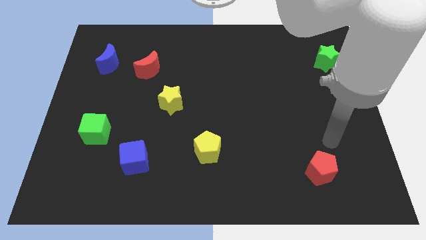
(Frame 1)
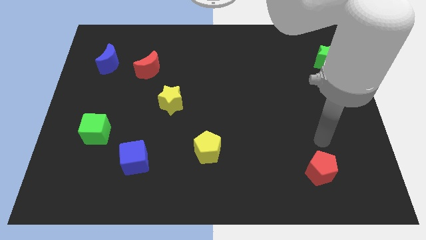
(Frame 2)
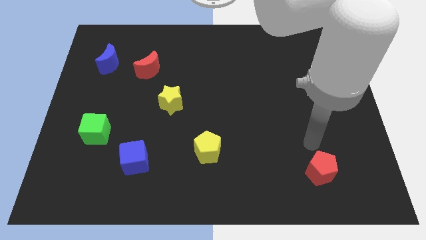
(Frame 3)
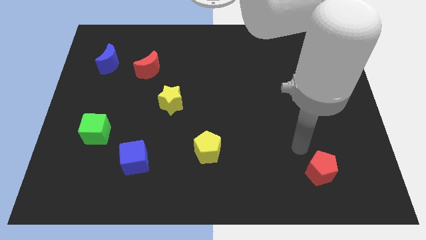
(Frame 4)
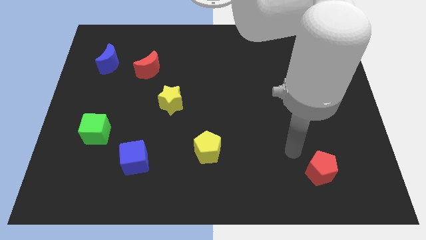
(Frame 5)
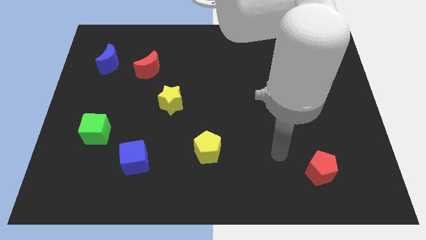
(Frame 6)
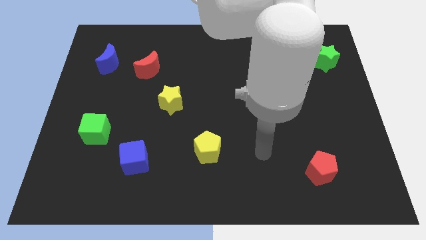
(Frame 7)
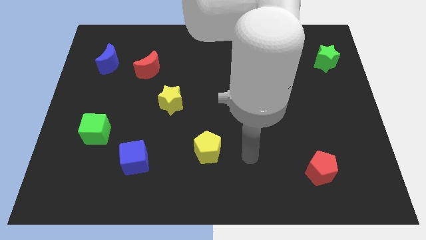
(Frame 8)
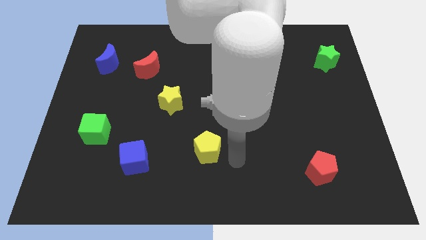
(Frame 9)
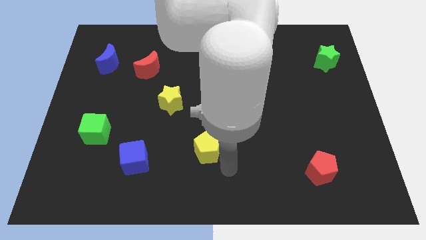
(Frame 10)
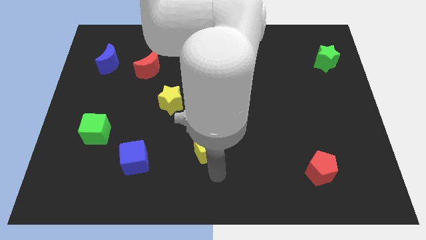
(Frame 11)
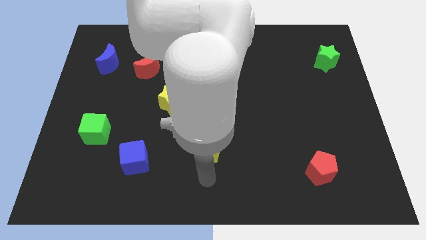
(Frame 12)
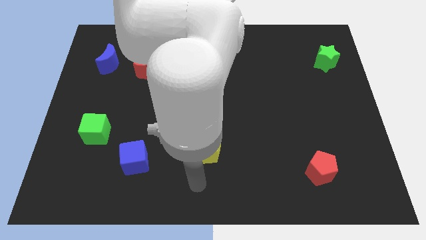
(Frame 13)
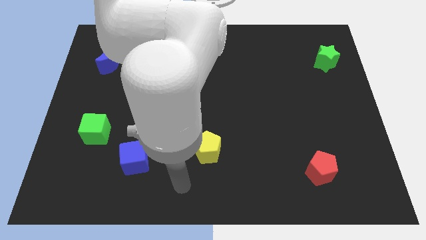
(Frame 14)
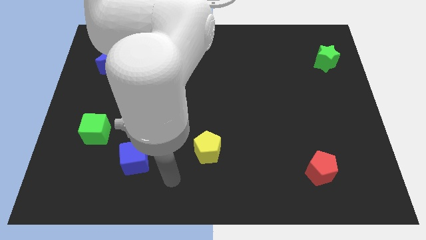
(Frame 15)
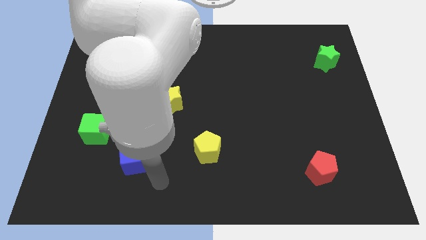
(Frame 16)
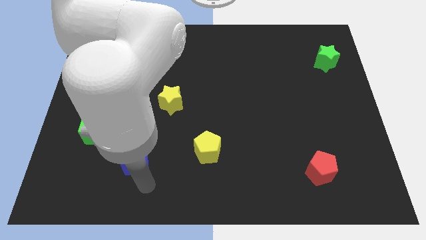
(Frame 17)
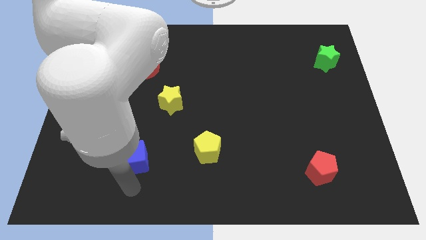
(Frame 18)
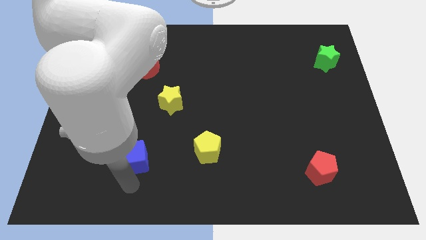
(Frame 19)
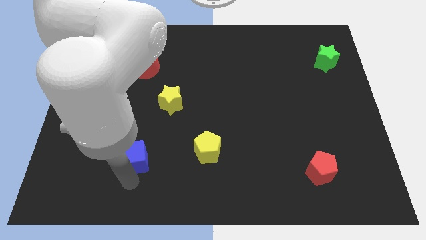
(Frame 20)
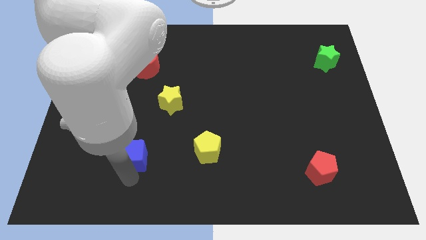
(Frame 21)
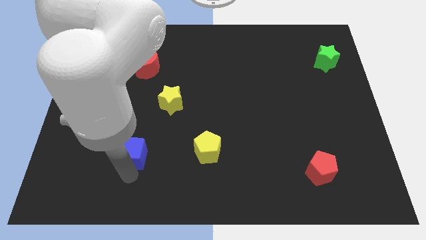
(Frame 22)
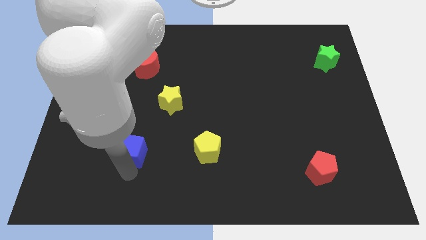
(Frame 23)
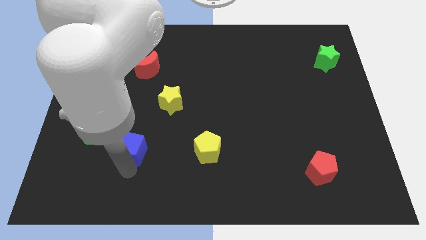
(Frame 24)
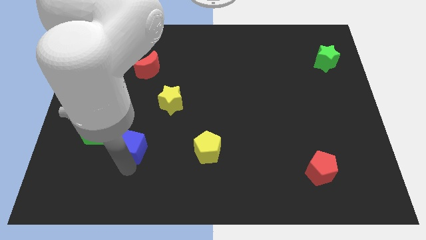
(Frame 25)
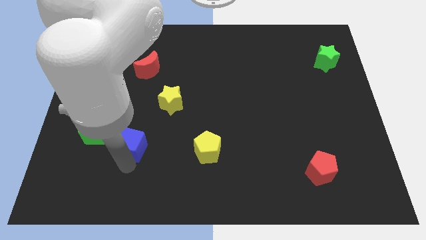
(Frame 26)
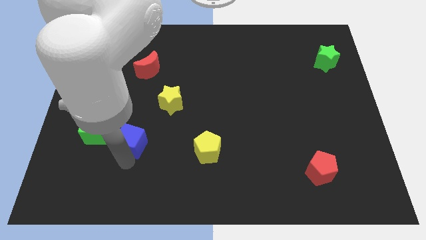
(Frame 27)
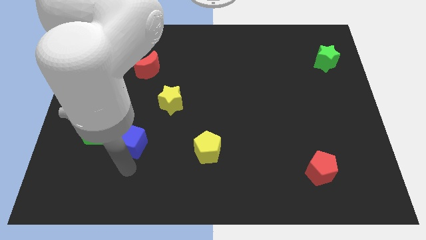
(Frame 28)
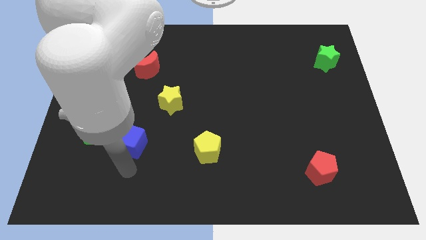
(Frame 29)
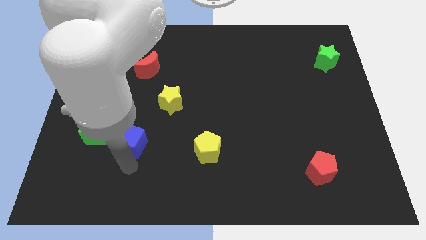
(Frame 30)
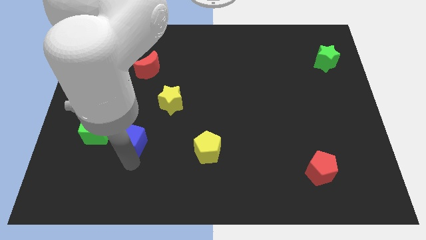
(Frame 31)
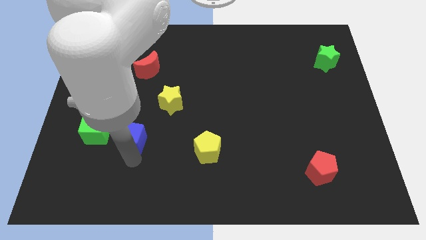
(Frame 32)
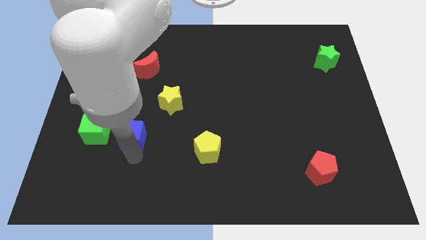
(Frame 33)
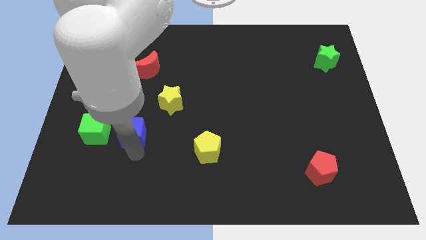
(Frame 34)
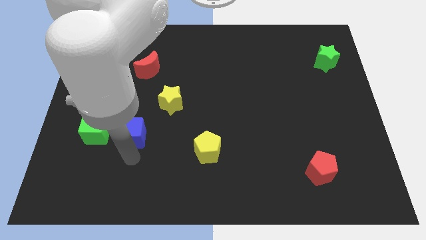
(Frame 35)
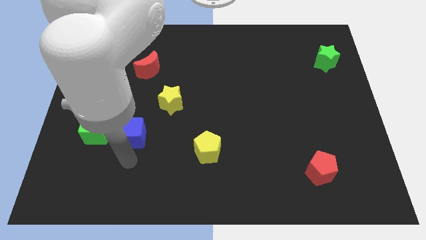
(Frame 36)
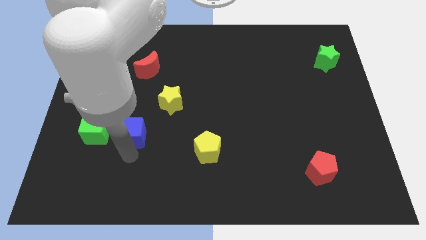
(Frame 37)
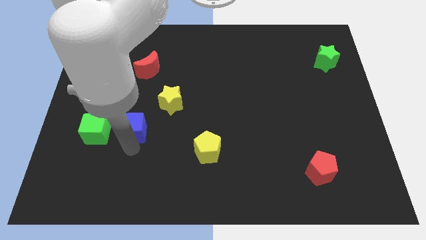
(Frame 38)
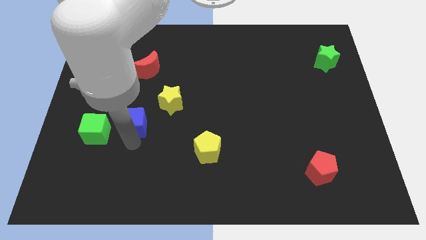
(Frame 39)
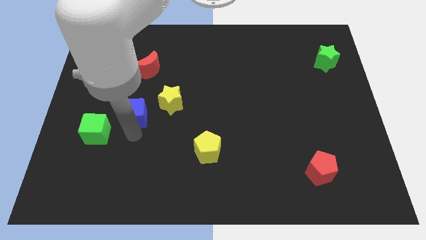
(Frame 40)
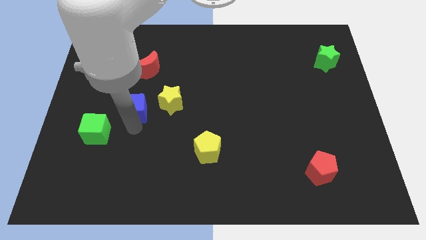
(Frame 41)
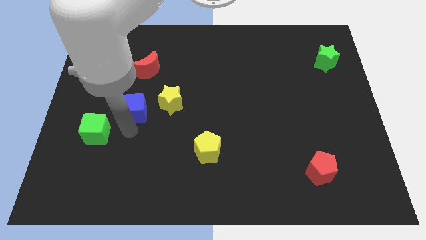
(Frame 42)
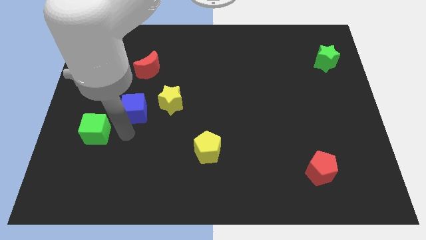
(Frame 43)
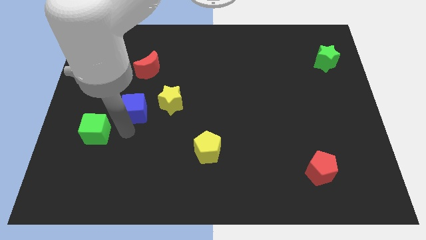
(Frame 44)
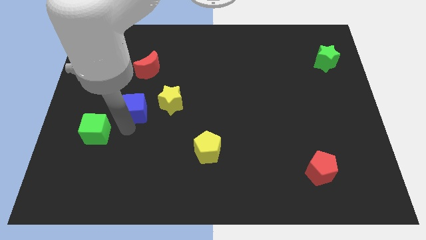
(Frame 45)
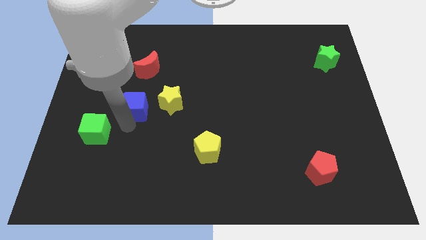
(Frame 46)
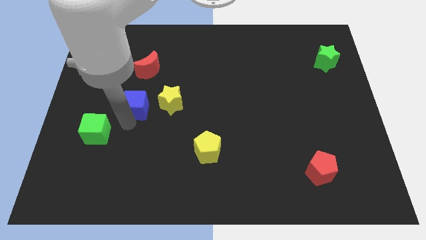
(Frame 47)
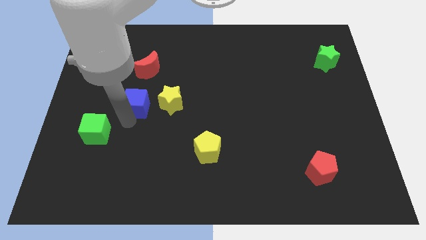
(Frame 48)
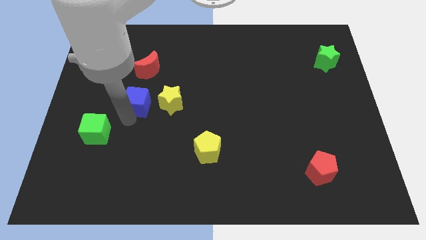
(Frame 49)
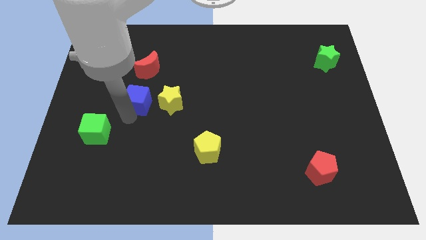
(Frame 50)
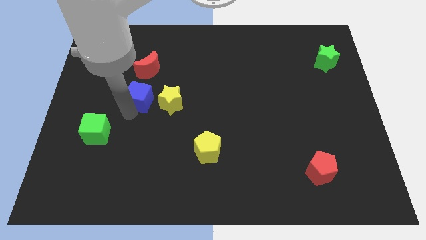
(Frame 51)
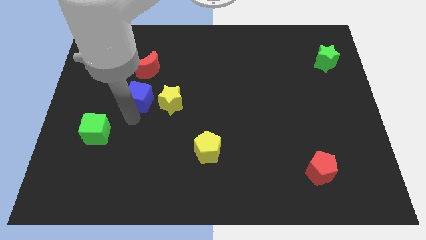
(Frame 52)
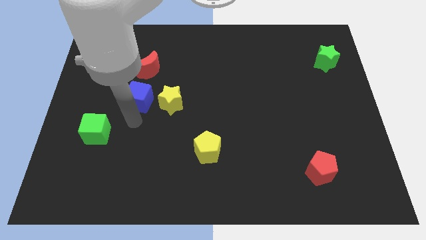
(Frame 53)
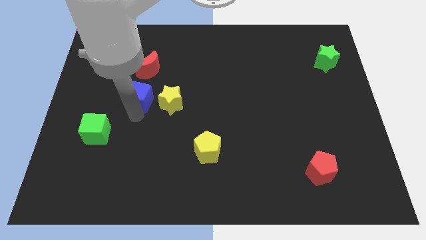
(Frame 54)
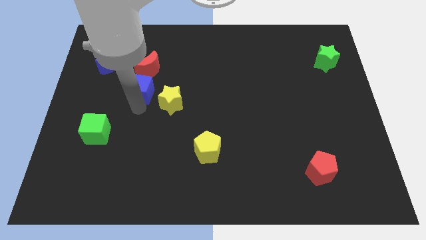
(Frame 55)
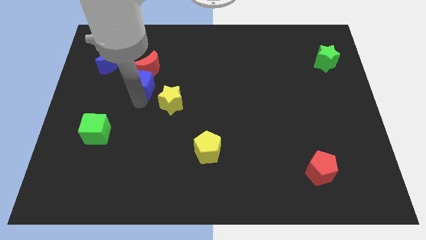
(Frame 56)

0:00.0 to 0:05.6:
push the blue cube close to the red moon

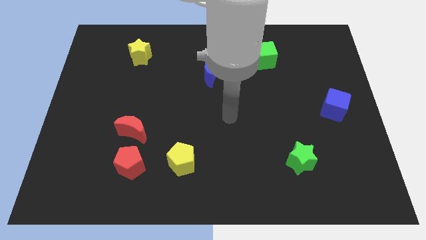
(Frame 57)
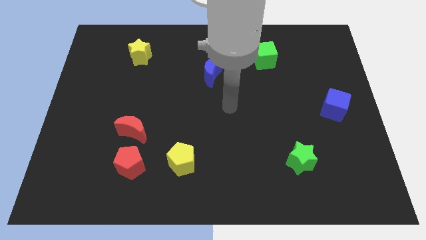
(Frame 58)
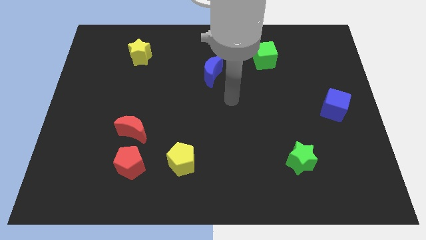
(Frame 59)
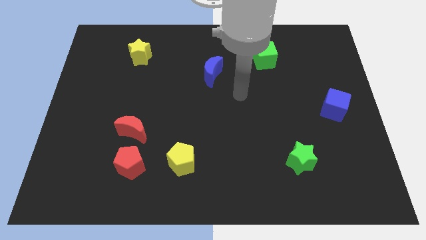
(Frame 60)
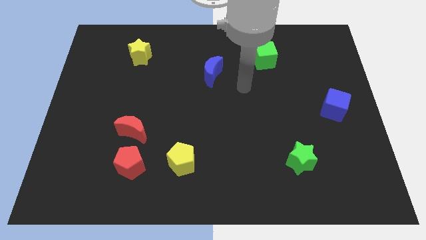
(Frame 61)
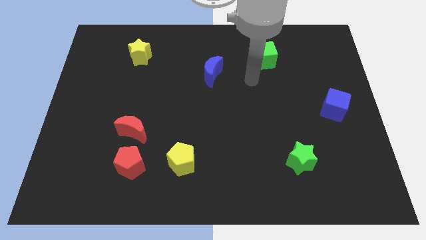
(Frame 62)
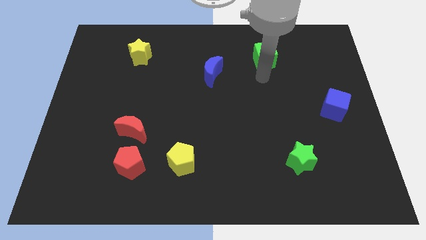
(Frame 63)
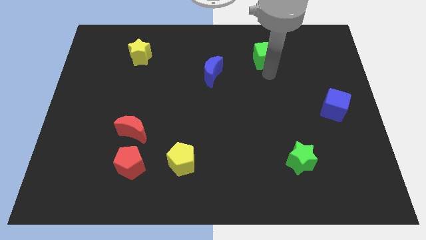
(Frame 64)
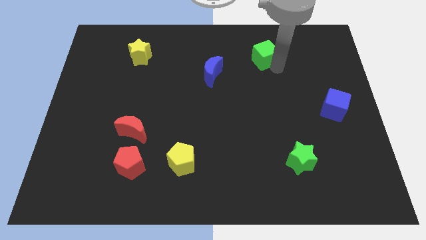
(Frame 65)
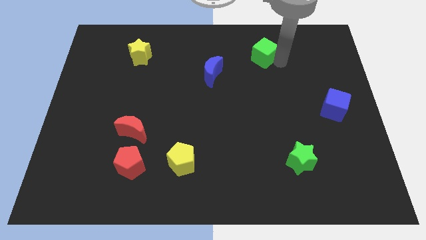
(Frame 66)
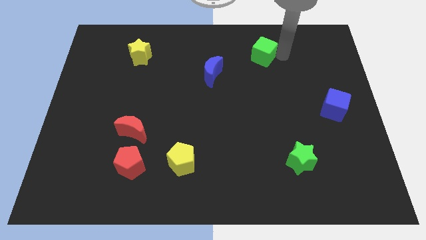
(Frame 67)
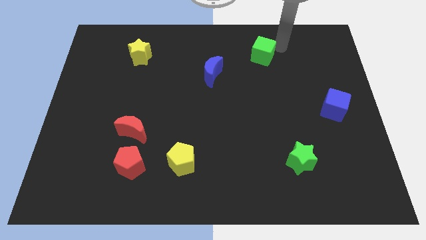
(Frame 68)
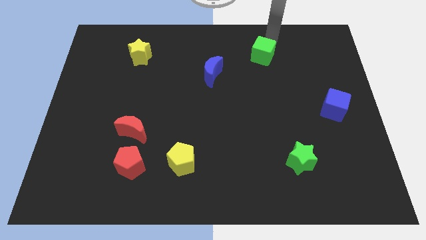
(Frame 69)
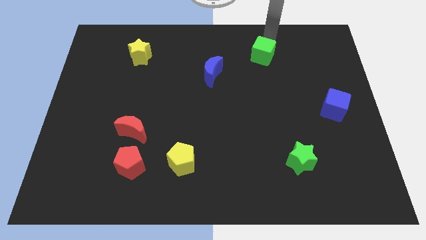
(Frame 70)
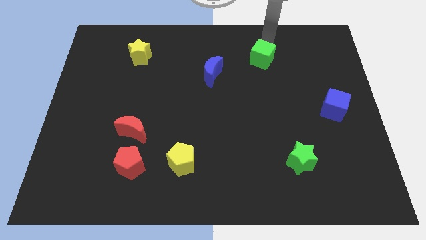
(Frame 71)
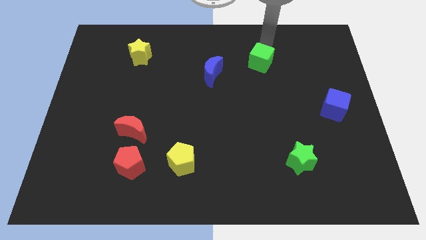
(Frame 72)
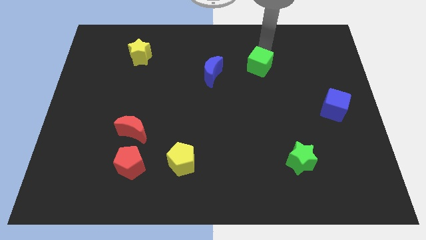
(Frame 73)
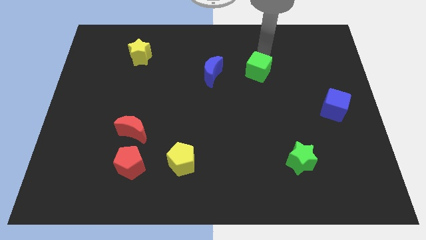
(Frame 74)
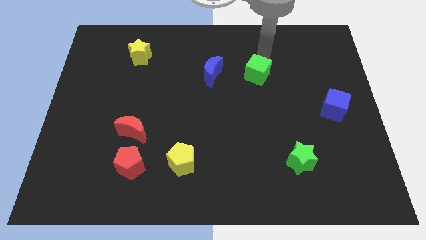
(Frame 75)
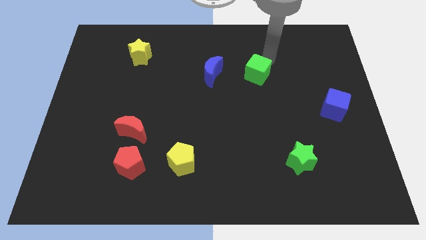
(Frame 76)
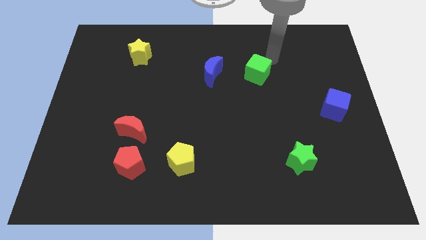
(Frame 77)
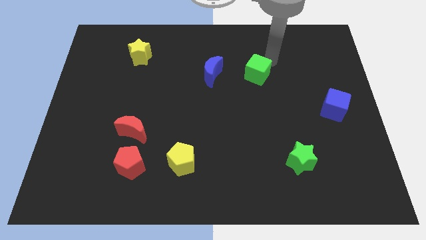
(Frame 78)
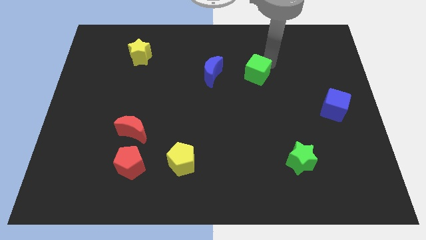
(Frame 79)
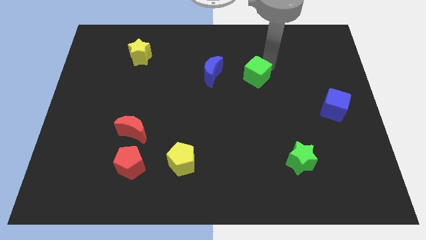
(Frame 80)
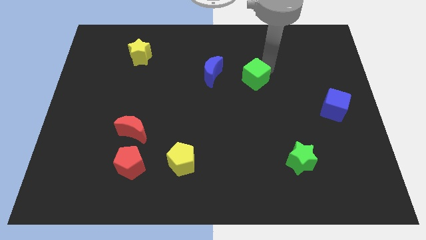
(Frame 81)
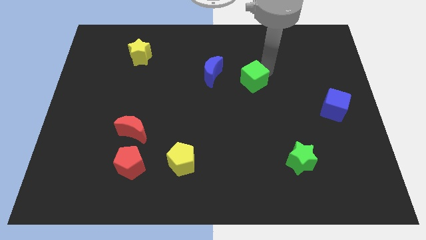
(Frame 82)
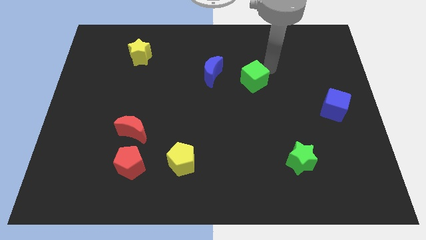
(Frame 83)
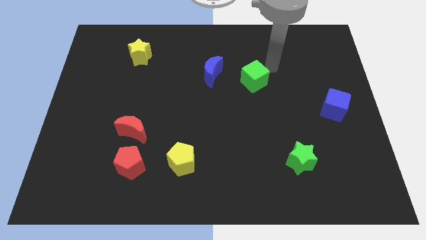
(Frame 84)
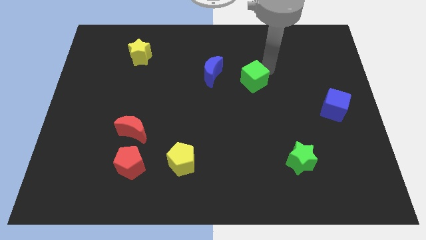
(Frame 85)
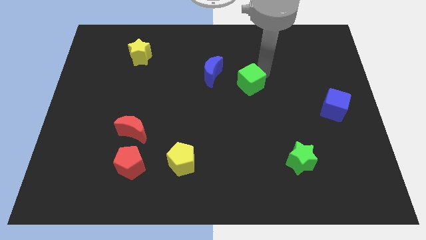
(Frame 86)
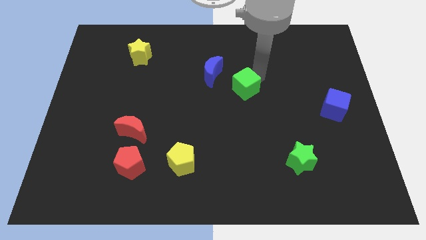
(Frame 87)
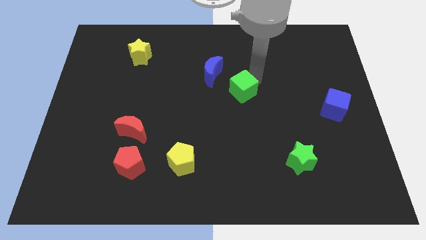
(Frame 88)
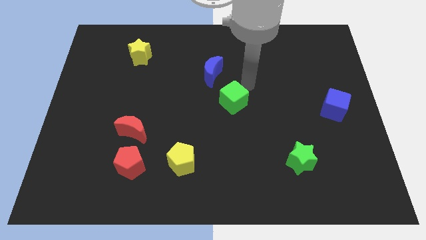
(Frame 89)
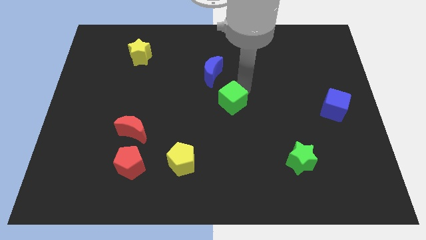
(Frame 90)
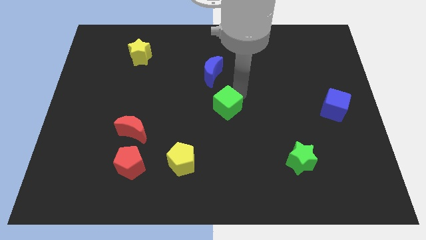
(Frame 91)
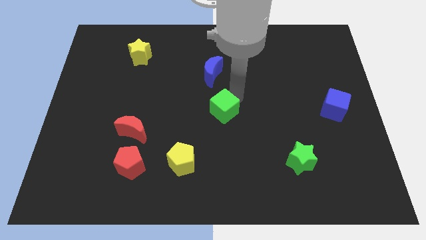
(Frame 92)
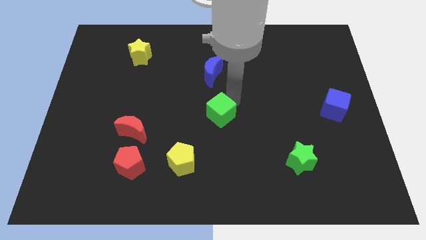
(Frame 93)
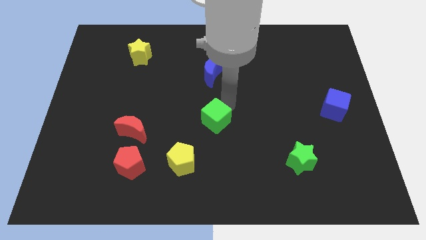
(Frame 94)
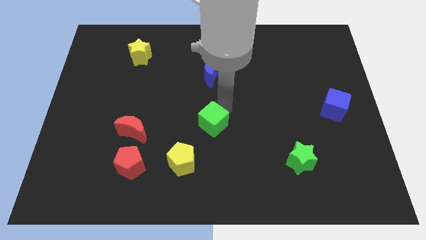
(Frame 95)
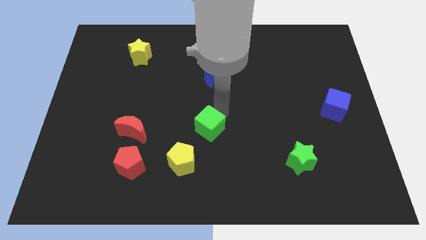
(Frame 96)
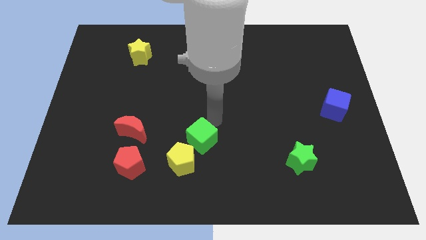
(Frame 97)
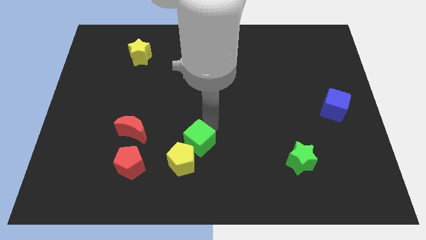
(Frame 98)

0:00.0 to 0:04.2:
slide the green cube next to the yellow pentagon
